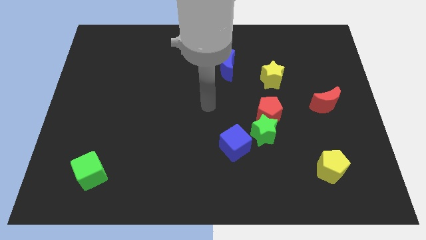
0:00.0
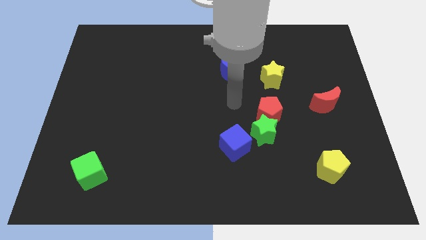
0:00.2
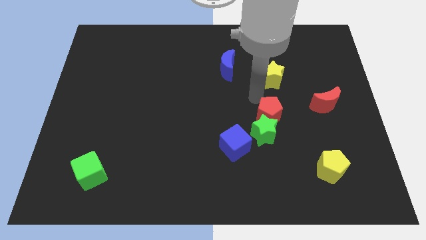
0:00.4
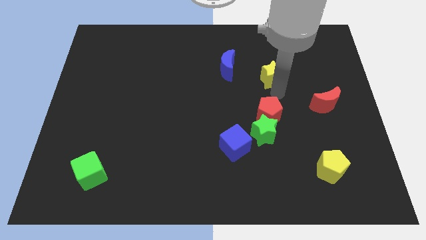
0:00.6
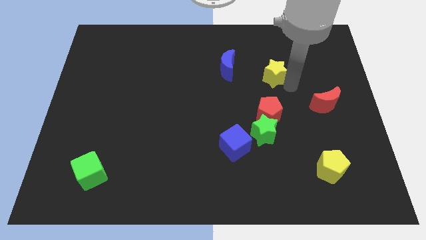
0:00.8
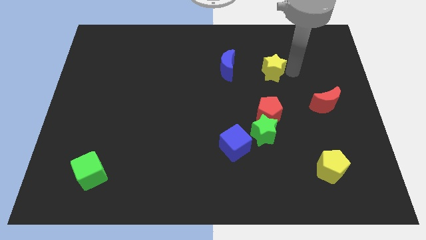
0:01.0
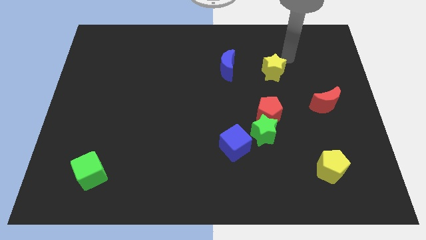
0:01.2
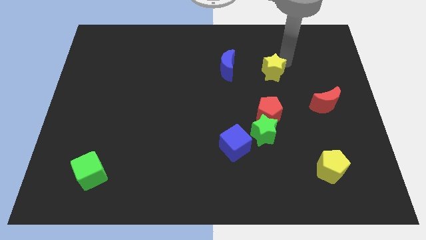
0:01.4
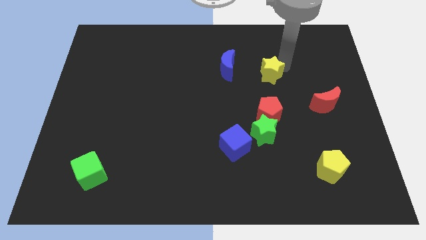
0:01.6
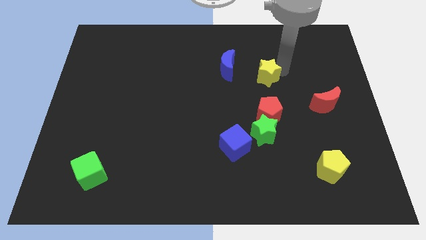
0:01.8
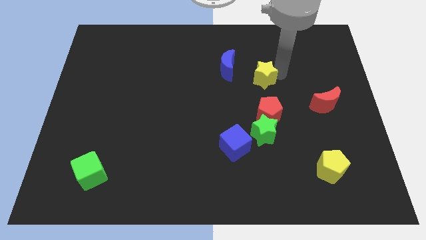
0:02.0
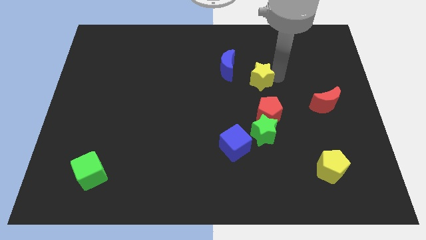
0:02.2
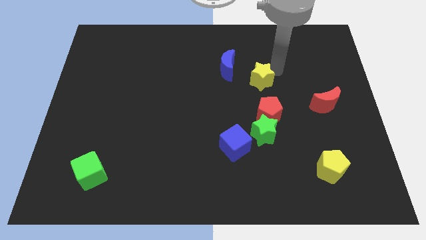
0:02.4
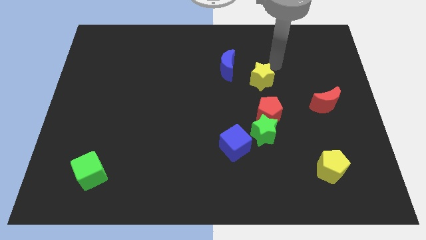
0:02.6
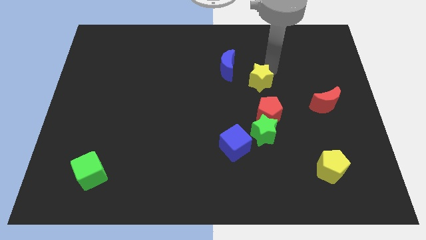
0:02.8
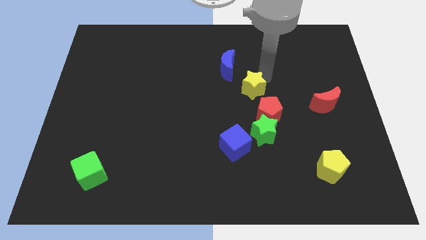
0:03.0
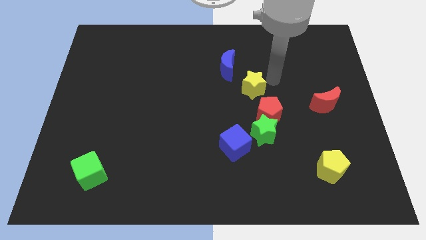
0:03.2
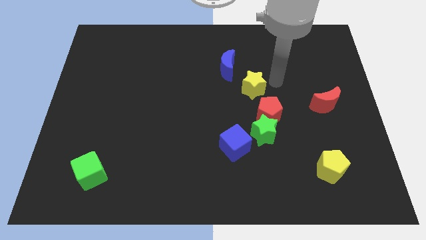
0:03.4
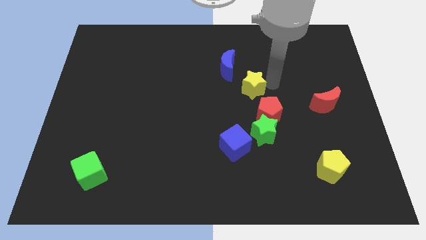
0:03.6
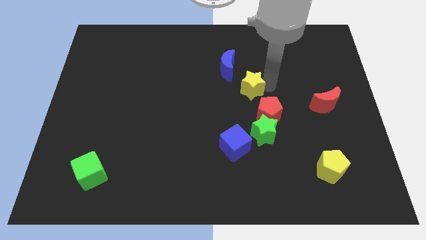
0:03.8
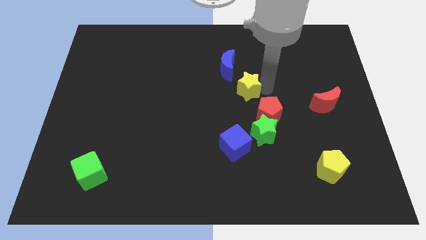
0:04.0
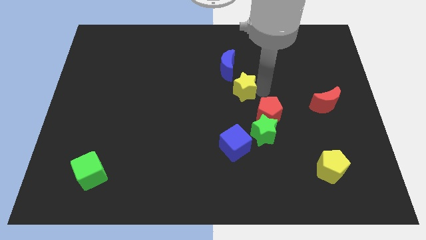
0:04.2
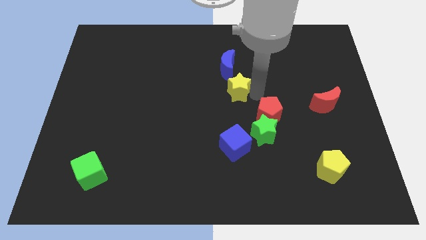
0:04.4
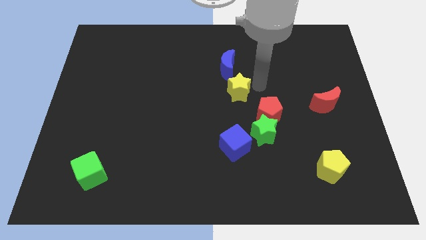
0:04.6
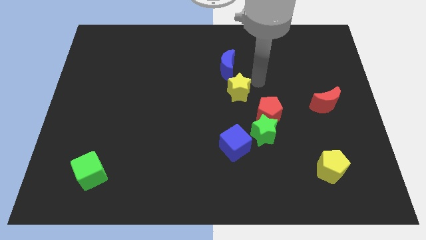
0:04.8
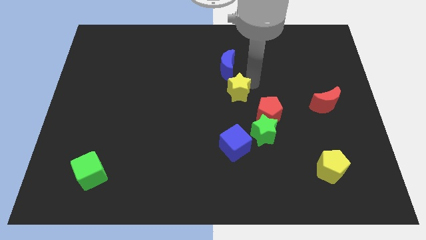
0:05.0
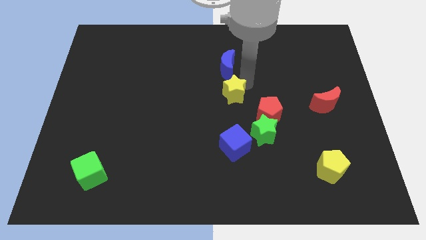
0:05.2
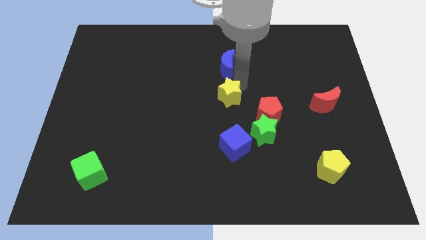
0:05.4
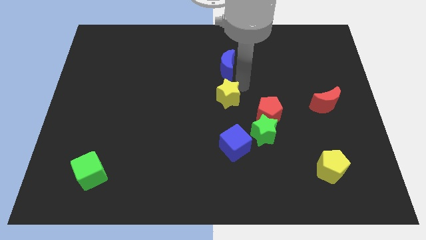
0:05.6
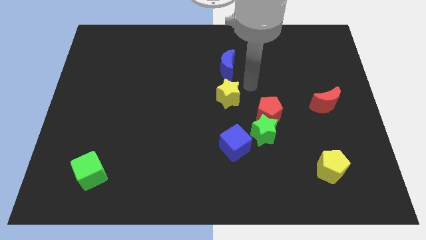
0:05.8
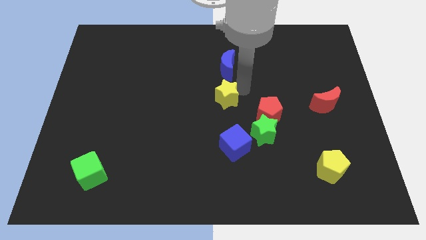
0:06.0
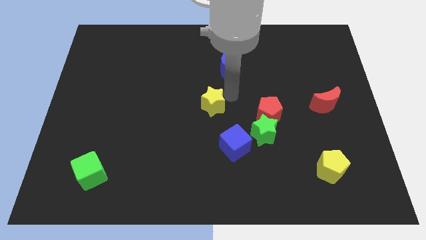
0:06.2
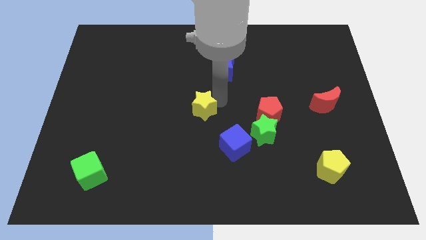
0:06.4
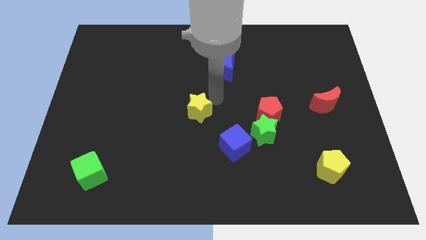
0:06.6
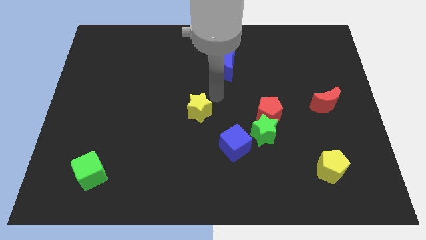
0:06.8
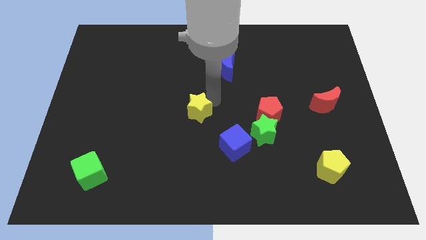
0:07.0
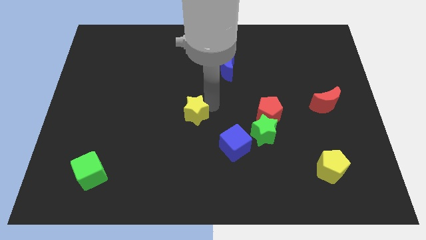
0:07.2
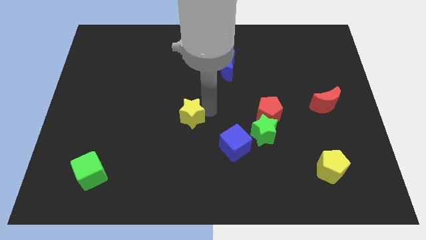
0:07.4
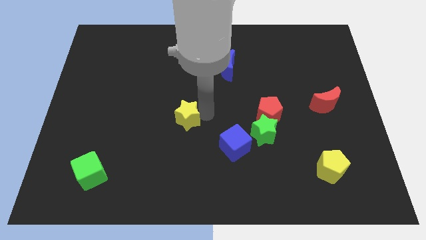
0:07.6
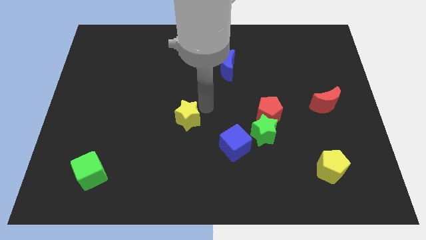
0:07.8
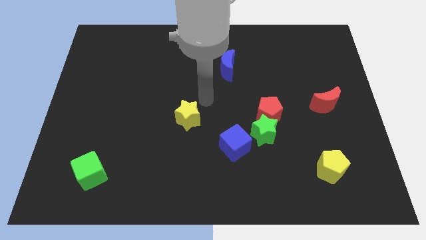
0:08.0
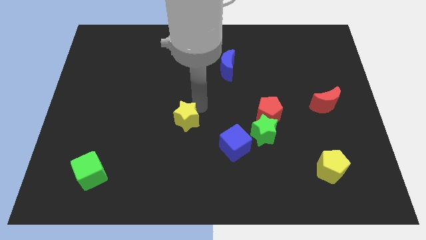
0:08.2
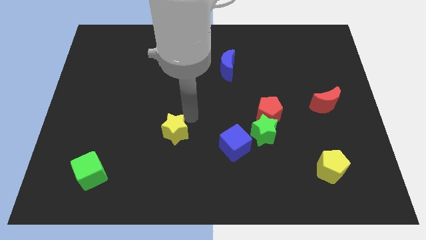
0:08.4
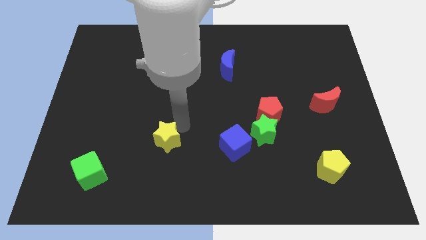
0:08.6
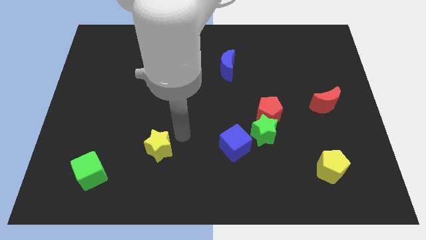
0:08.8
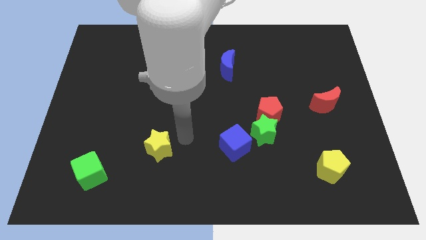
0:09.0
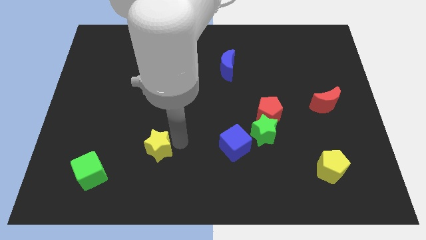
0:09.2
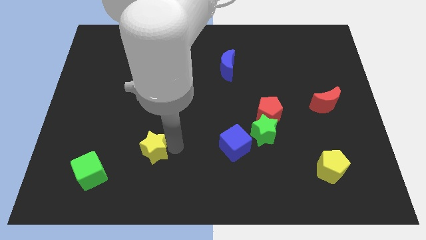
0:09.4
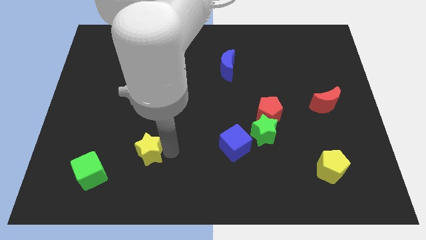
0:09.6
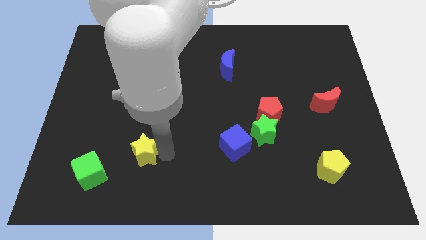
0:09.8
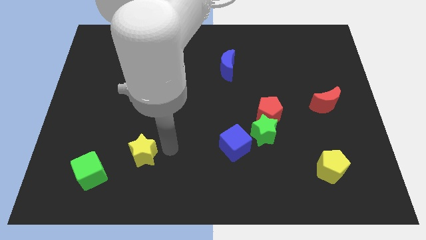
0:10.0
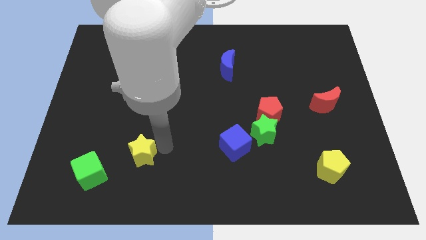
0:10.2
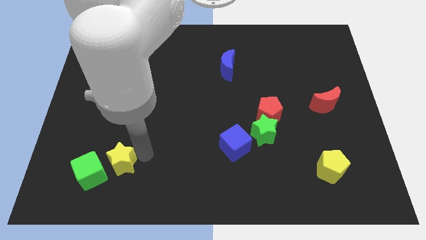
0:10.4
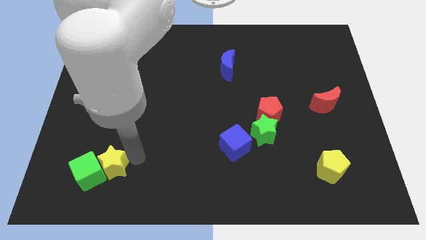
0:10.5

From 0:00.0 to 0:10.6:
move the yellow star close to the green cube

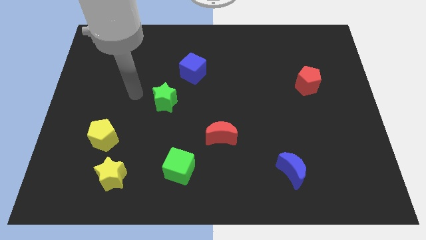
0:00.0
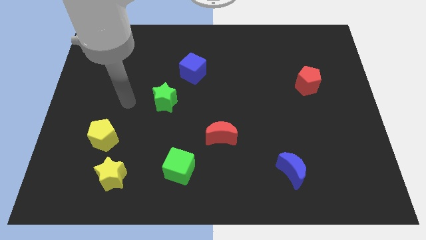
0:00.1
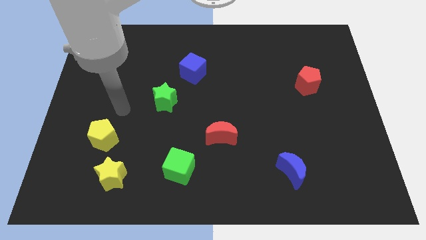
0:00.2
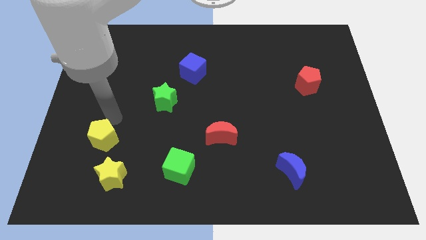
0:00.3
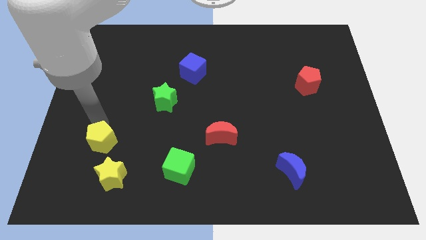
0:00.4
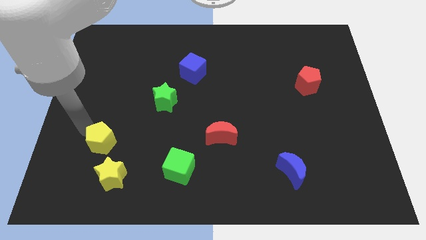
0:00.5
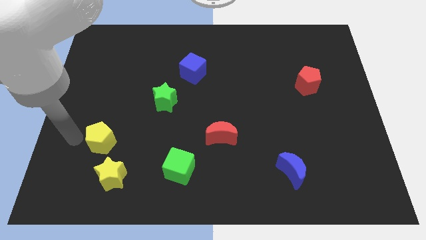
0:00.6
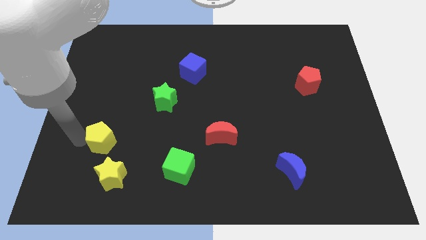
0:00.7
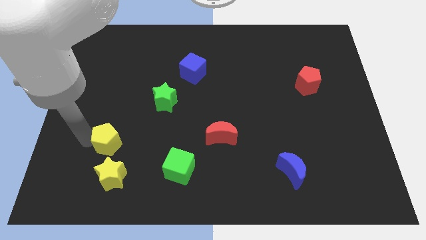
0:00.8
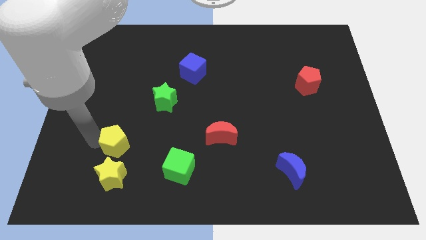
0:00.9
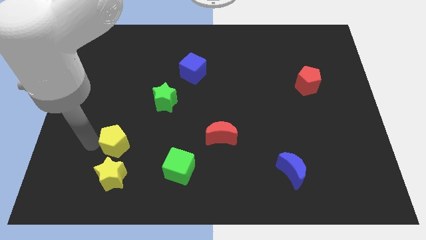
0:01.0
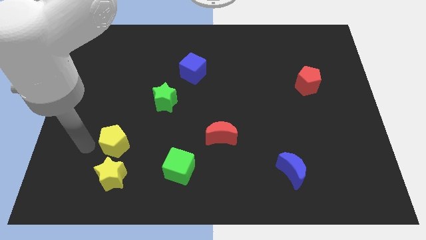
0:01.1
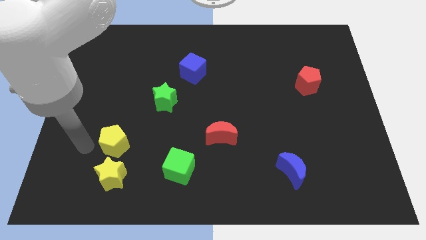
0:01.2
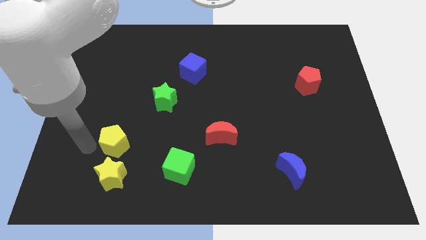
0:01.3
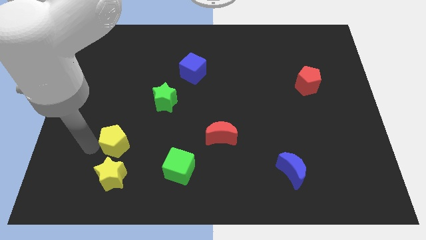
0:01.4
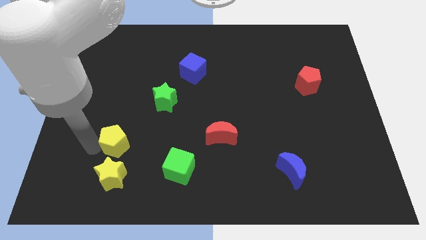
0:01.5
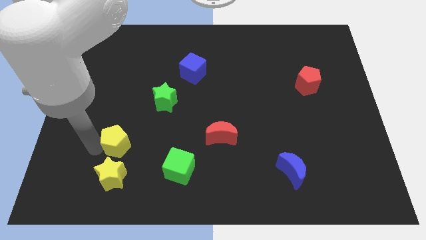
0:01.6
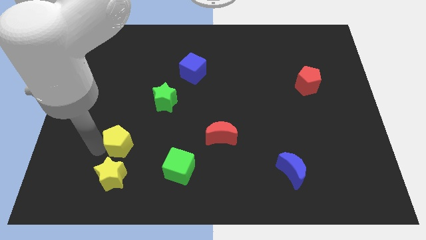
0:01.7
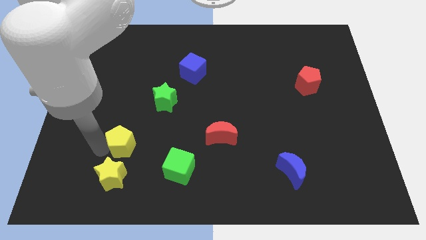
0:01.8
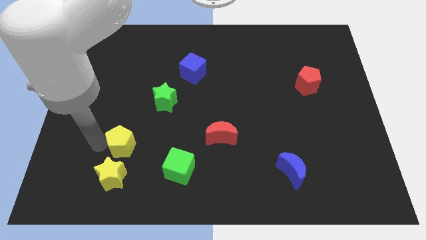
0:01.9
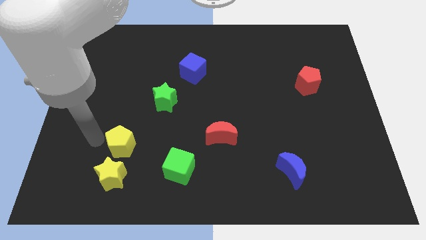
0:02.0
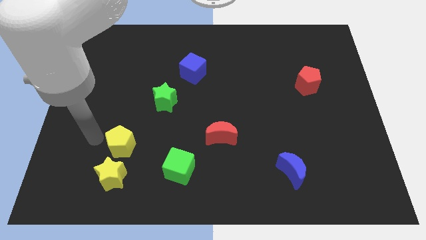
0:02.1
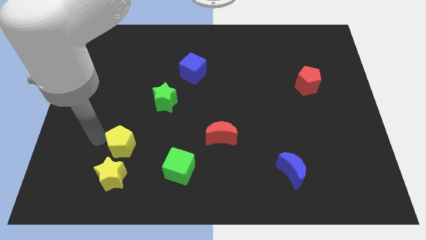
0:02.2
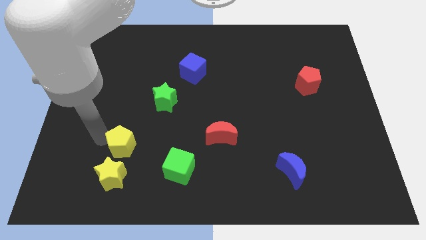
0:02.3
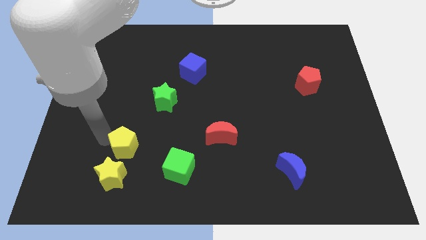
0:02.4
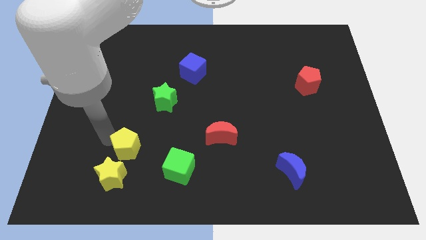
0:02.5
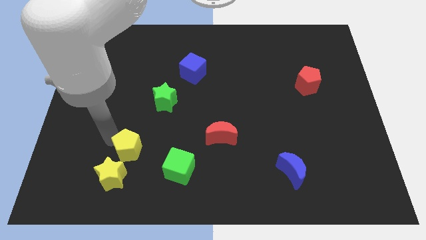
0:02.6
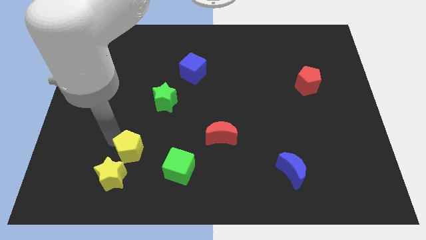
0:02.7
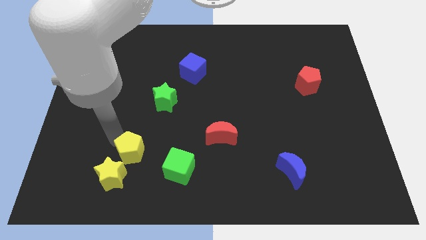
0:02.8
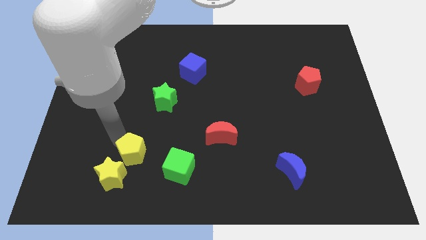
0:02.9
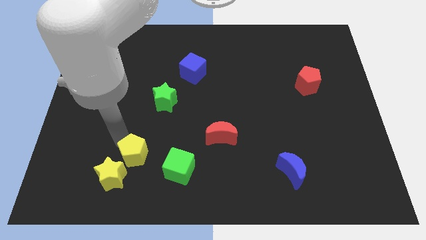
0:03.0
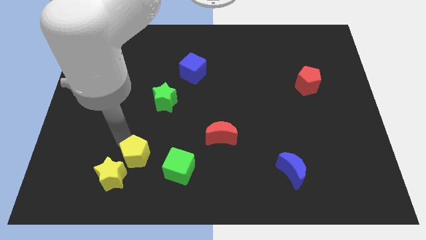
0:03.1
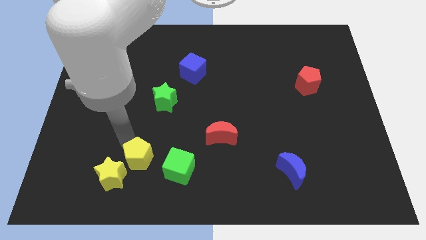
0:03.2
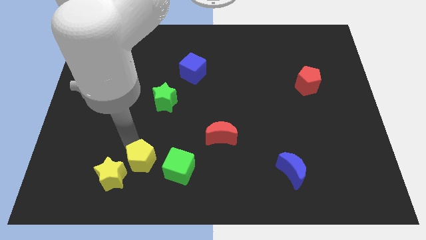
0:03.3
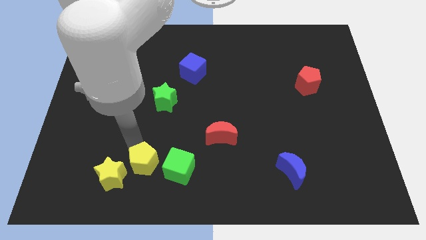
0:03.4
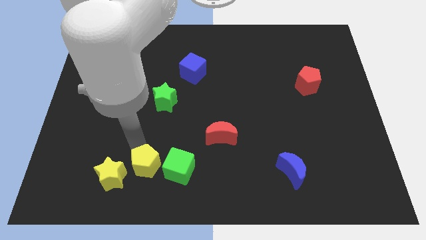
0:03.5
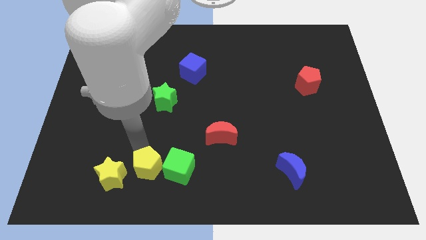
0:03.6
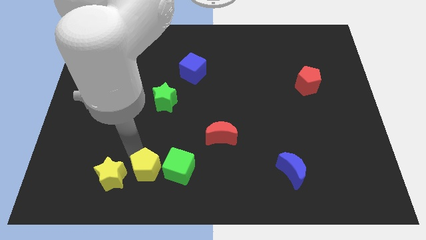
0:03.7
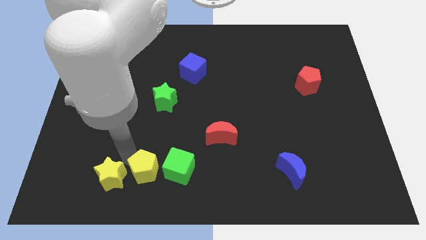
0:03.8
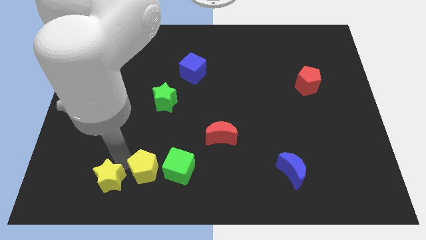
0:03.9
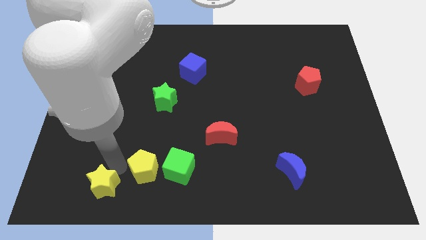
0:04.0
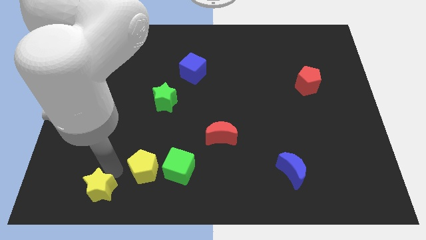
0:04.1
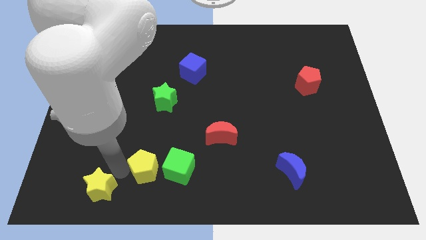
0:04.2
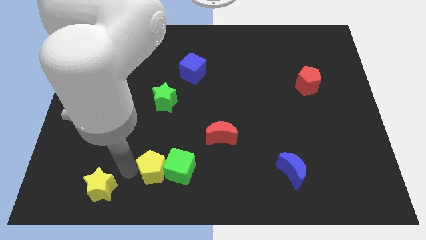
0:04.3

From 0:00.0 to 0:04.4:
move the yellow pentagon towards the green cube
